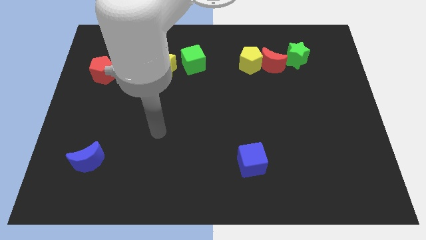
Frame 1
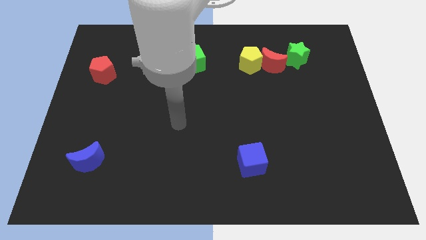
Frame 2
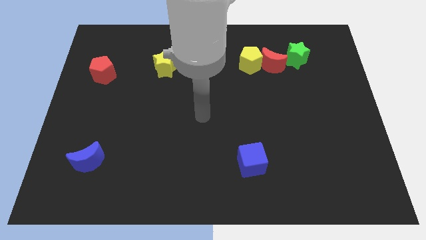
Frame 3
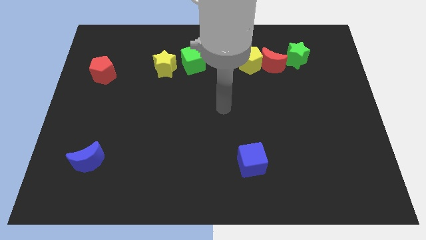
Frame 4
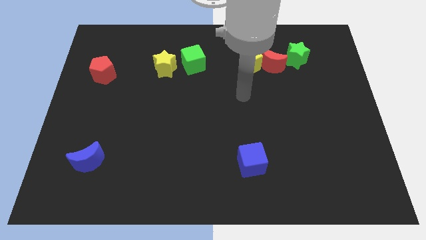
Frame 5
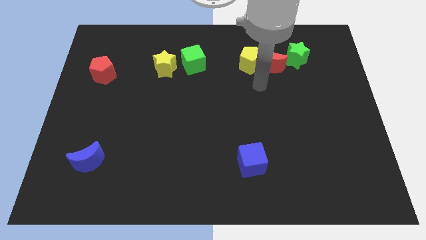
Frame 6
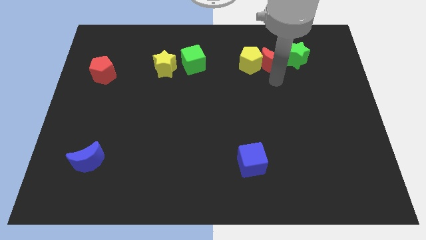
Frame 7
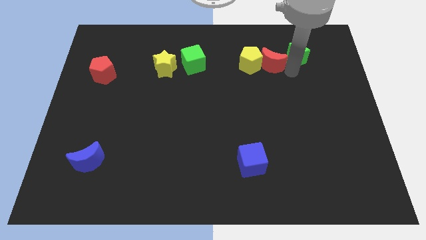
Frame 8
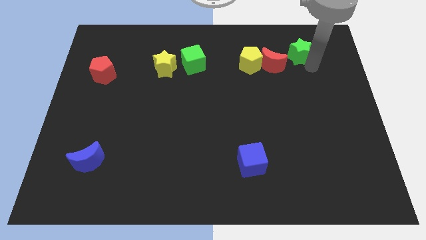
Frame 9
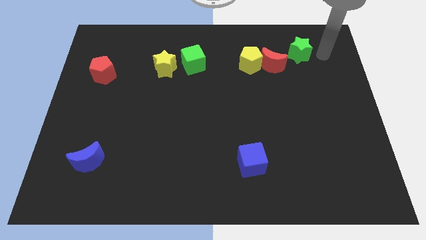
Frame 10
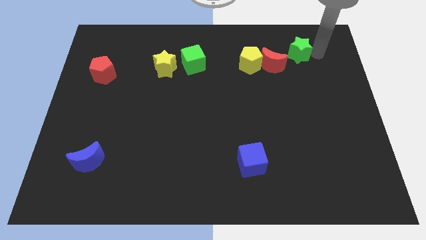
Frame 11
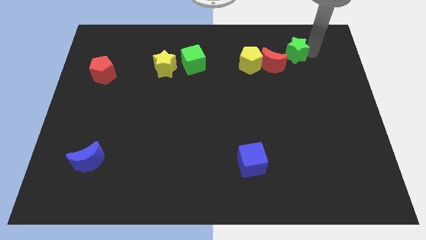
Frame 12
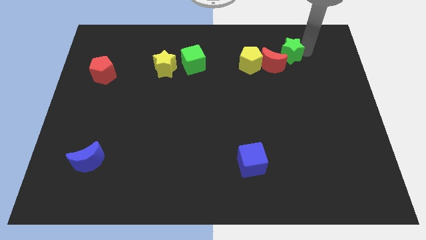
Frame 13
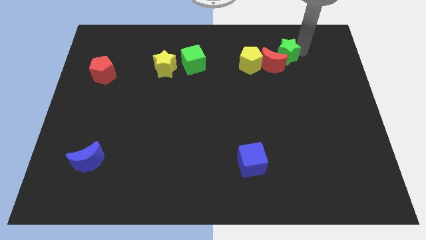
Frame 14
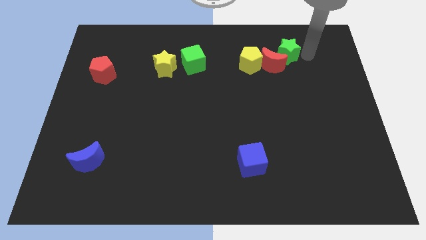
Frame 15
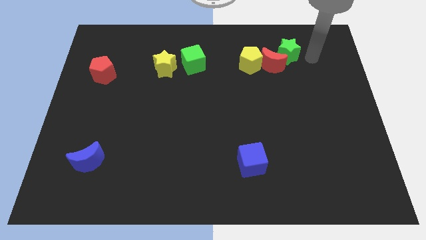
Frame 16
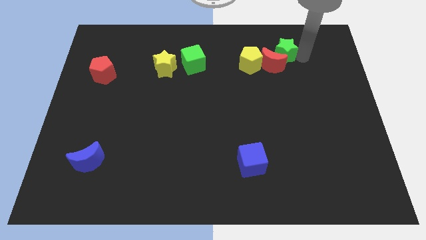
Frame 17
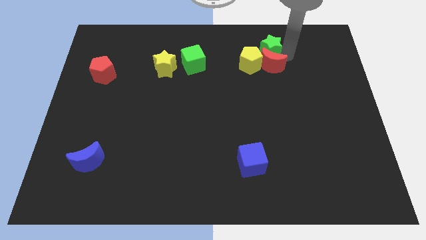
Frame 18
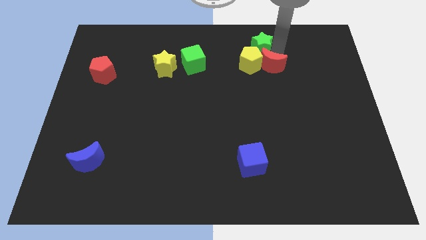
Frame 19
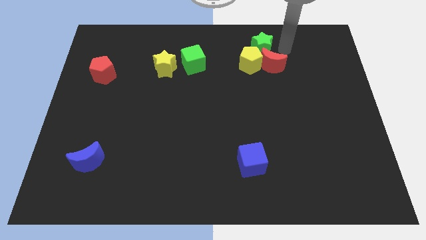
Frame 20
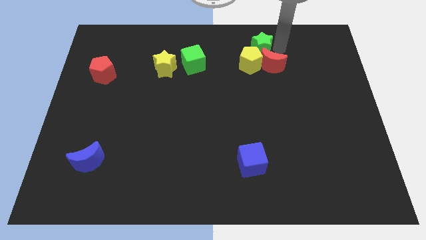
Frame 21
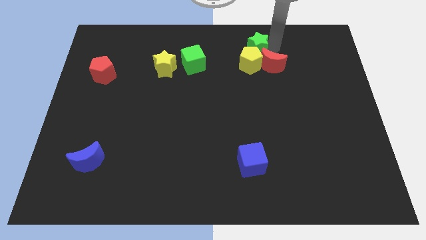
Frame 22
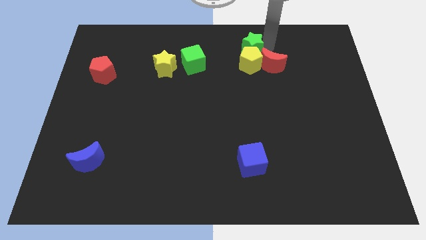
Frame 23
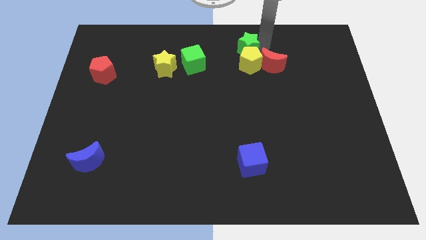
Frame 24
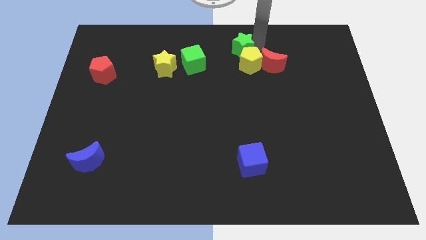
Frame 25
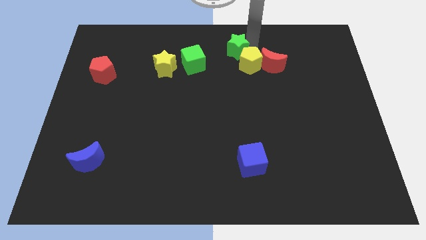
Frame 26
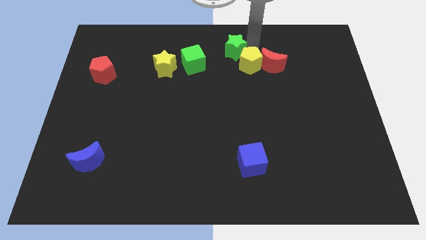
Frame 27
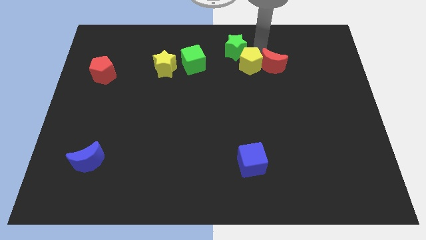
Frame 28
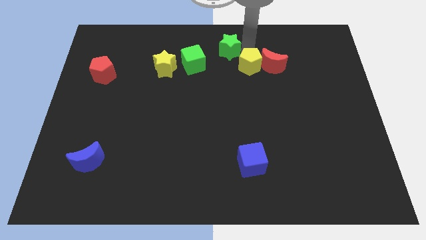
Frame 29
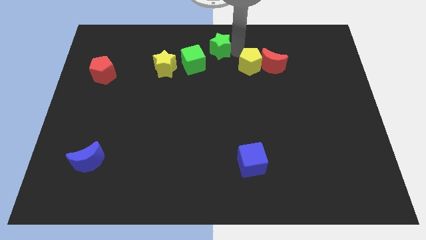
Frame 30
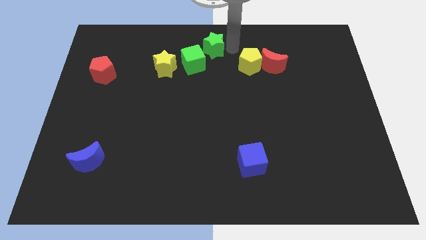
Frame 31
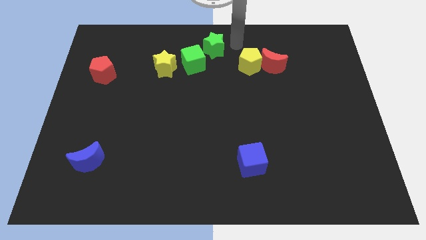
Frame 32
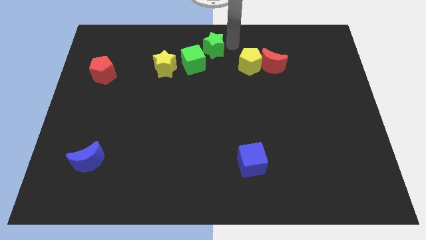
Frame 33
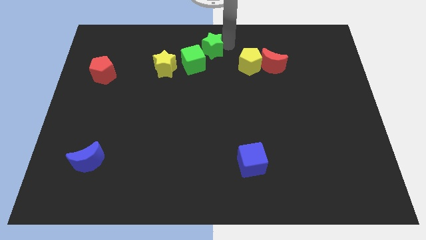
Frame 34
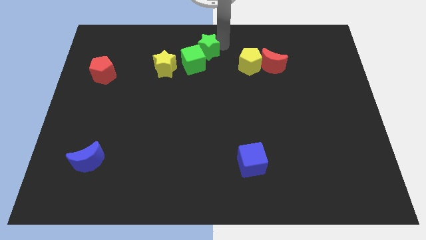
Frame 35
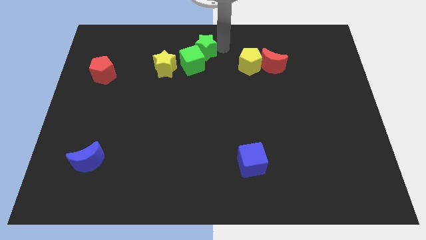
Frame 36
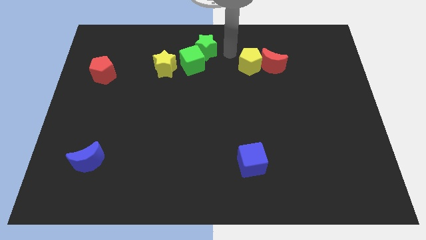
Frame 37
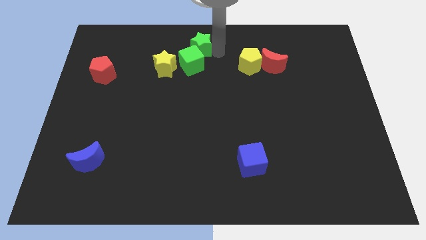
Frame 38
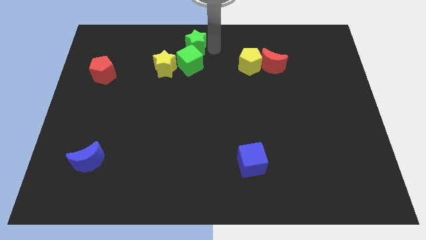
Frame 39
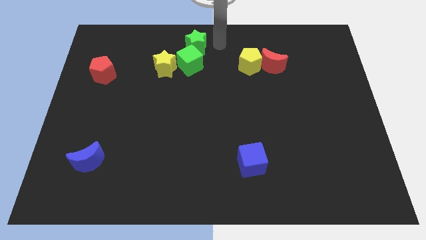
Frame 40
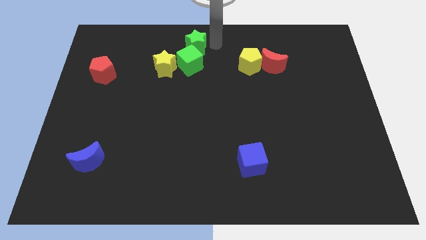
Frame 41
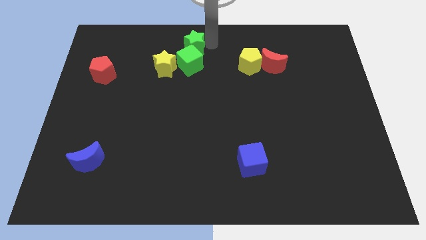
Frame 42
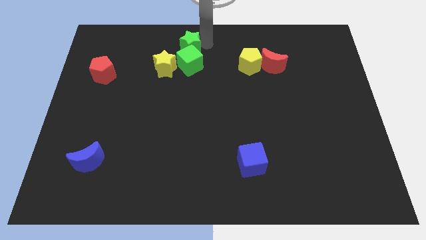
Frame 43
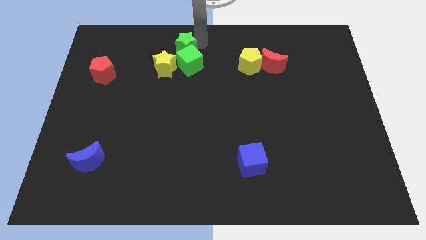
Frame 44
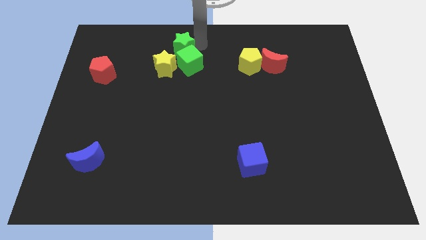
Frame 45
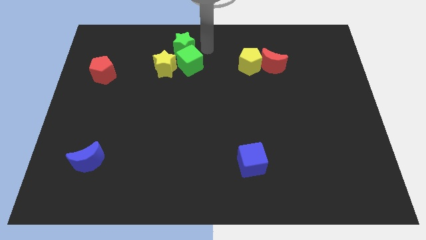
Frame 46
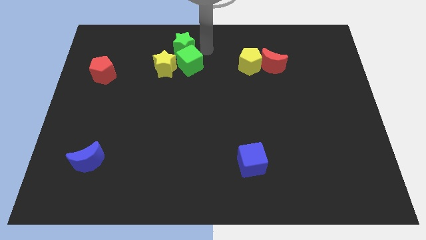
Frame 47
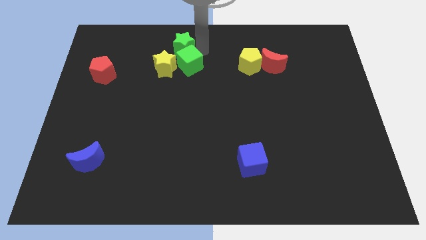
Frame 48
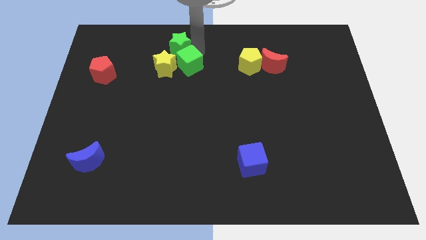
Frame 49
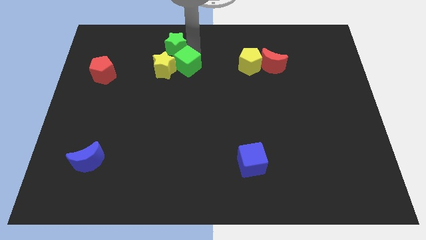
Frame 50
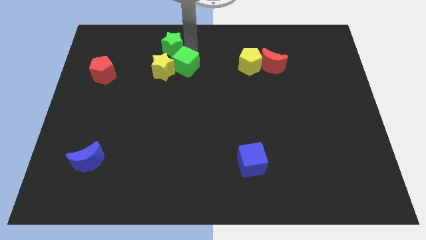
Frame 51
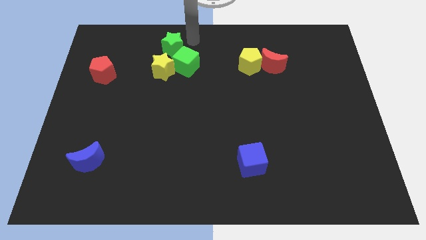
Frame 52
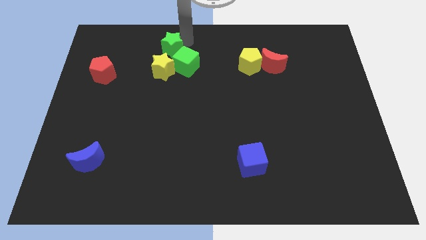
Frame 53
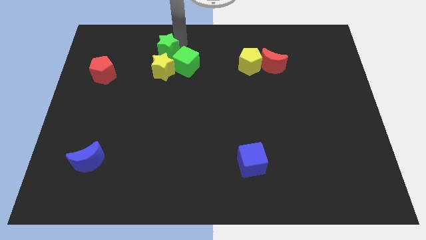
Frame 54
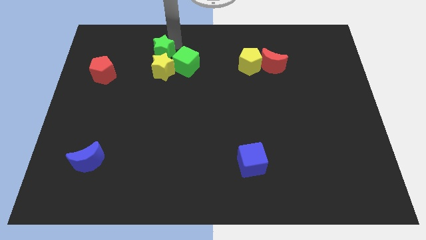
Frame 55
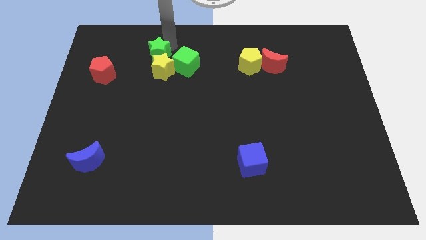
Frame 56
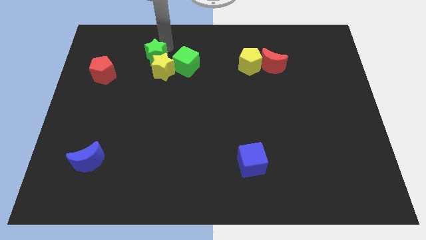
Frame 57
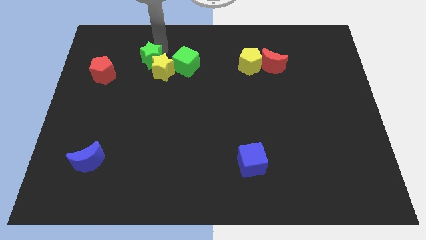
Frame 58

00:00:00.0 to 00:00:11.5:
move the green star to the right of the red pentagon

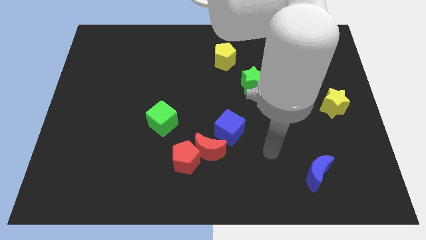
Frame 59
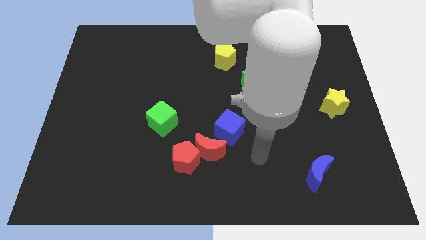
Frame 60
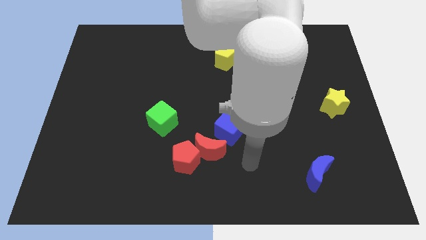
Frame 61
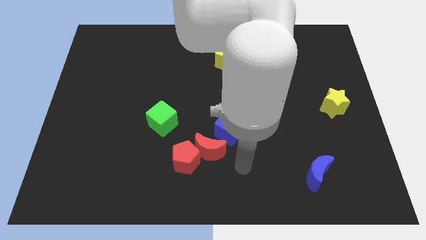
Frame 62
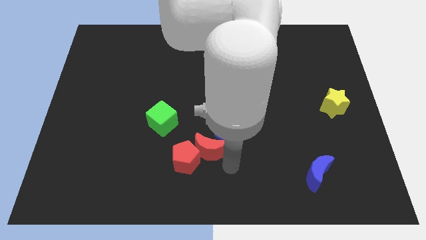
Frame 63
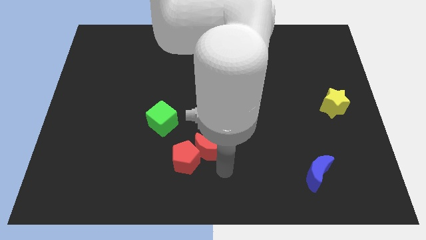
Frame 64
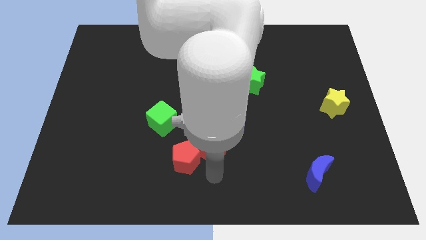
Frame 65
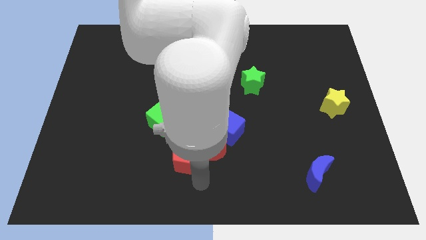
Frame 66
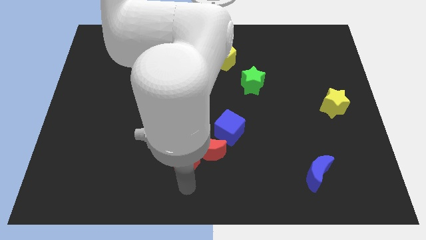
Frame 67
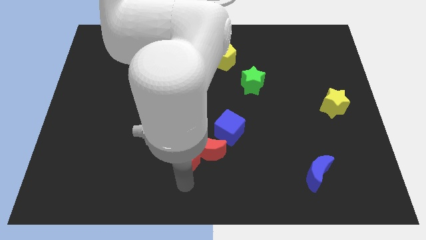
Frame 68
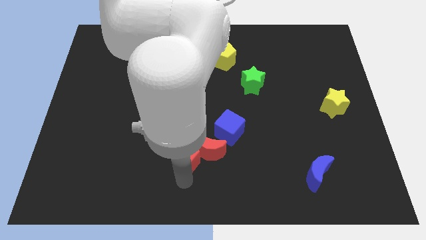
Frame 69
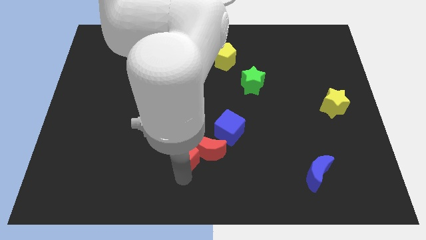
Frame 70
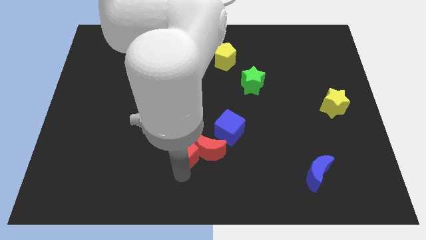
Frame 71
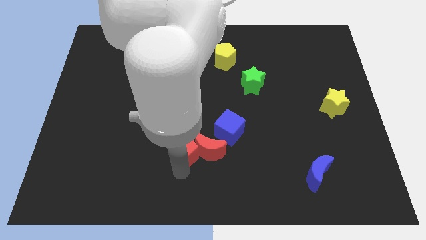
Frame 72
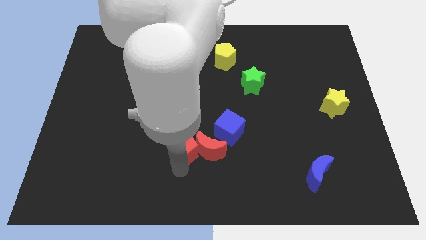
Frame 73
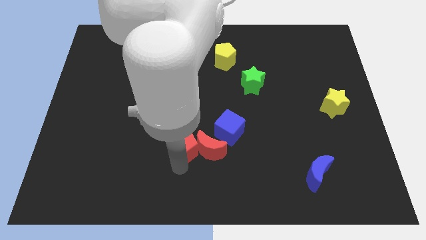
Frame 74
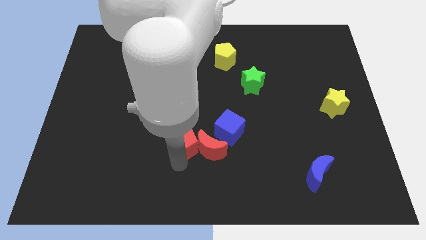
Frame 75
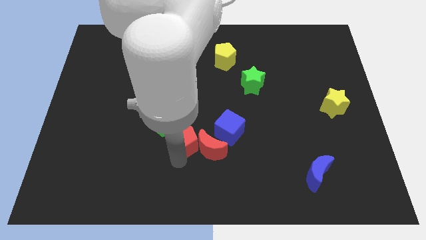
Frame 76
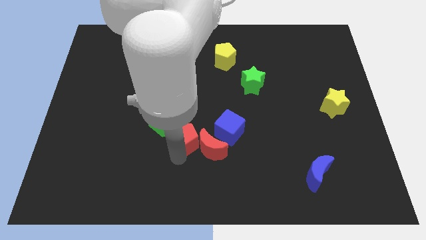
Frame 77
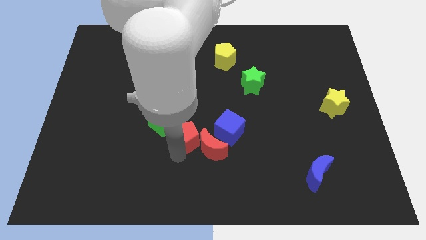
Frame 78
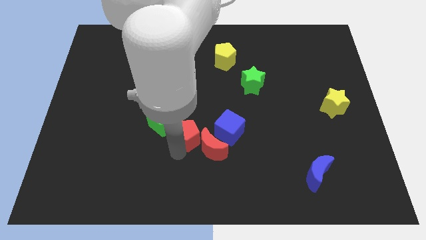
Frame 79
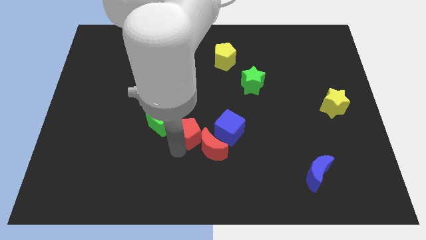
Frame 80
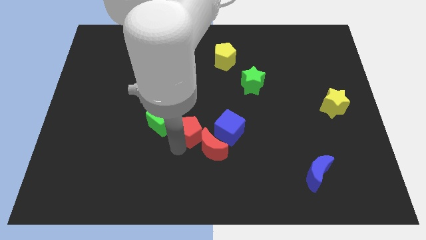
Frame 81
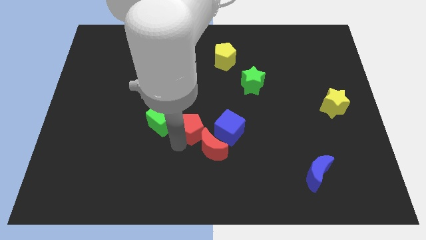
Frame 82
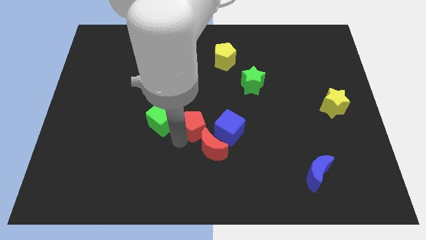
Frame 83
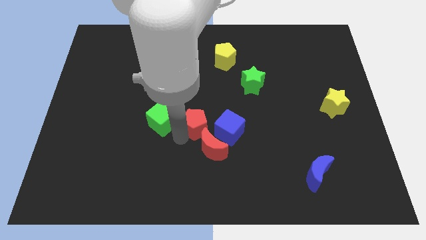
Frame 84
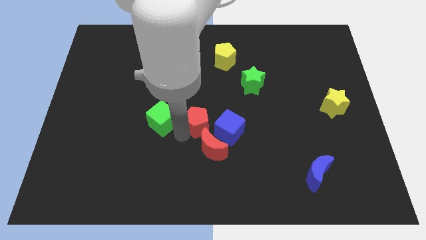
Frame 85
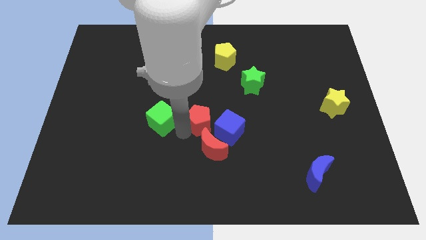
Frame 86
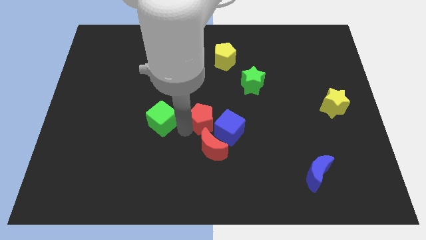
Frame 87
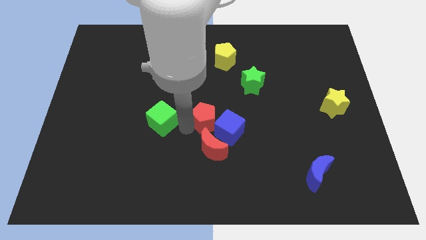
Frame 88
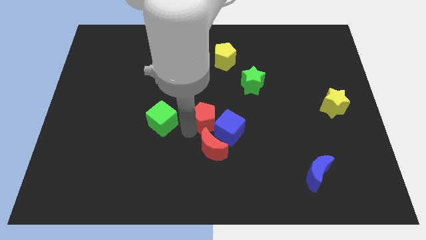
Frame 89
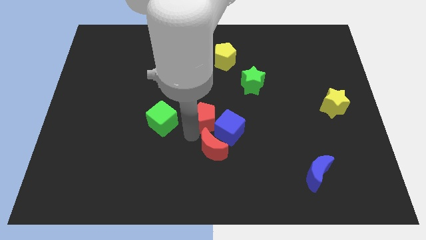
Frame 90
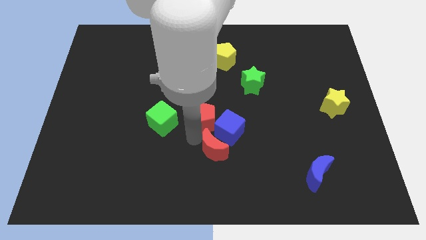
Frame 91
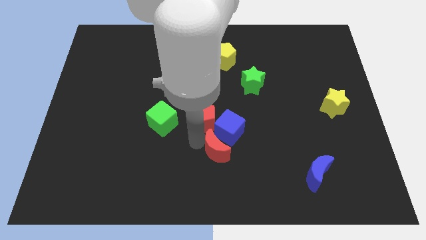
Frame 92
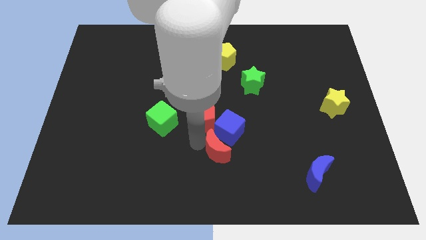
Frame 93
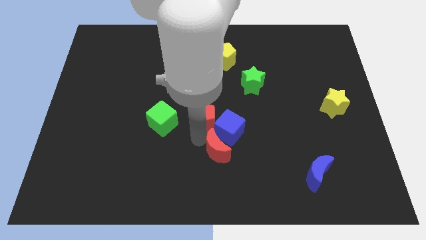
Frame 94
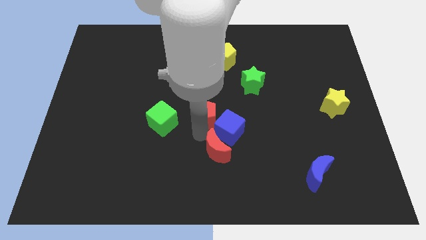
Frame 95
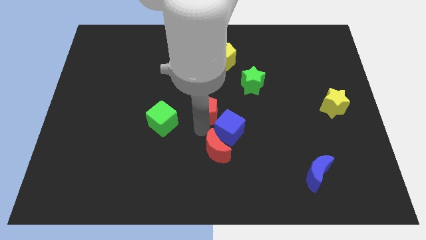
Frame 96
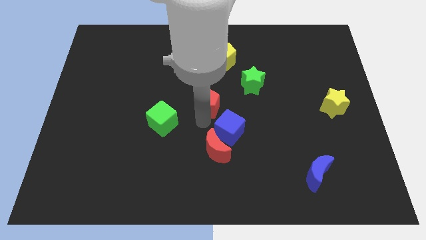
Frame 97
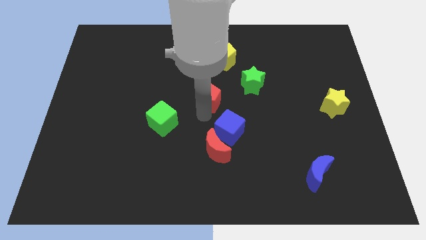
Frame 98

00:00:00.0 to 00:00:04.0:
move the red pentagon to the bottom of the yellow pentagon
